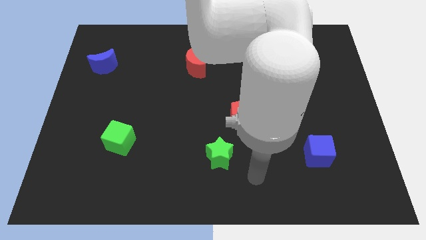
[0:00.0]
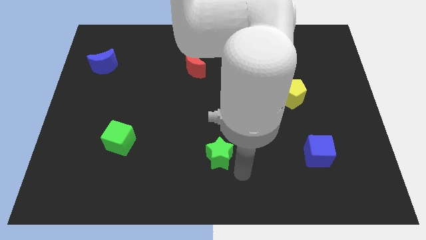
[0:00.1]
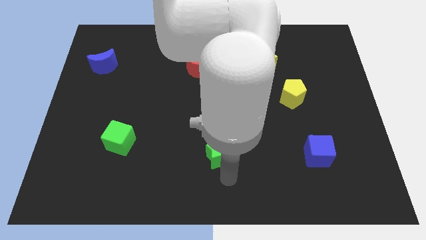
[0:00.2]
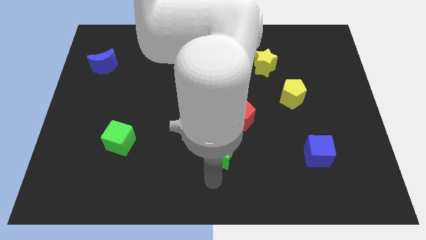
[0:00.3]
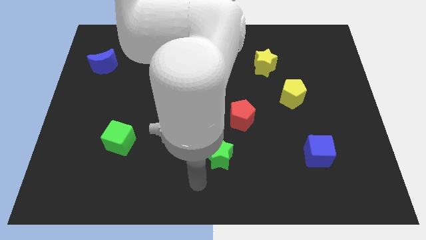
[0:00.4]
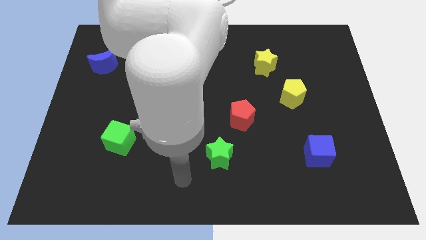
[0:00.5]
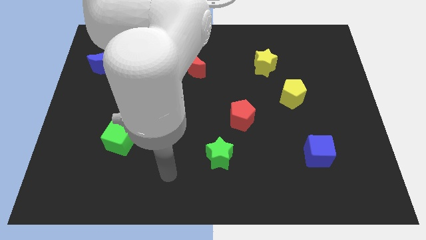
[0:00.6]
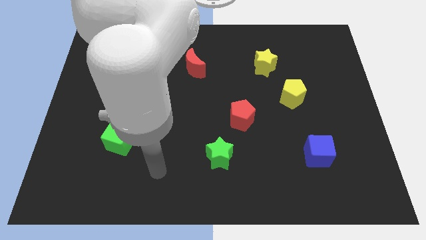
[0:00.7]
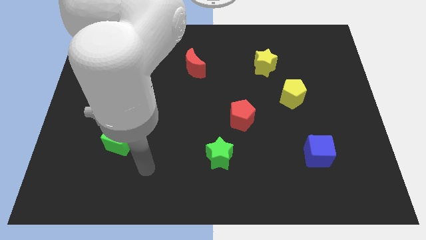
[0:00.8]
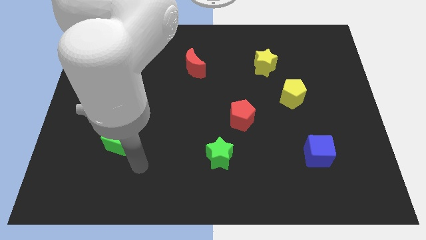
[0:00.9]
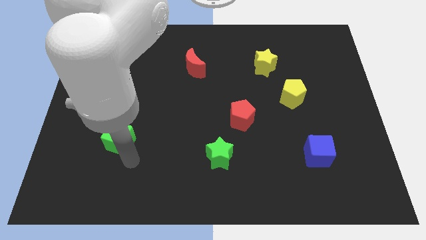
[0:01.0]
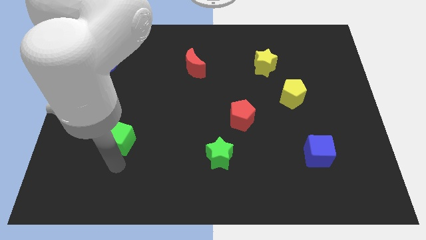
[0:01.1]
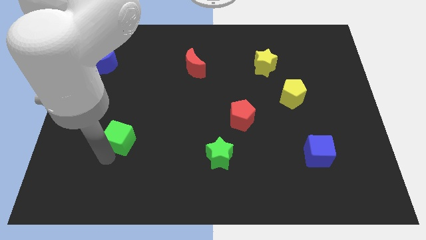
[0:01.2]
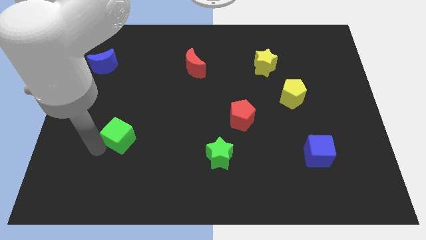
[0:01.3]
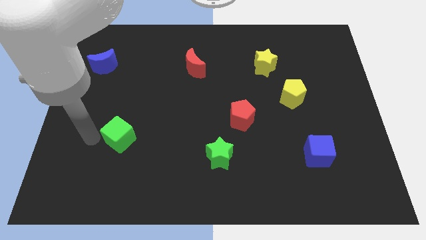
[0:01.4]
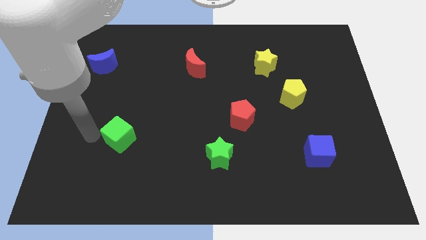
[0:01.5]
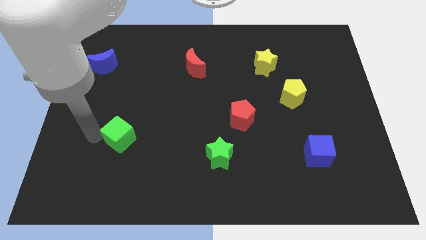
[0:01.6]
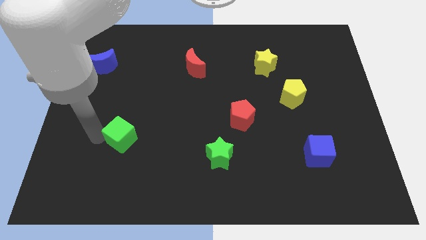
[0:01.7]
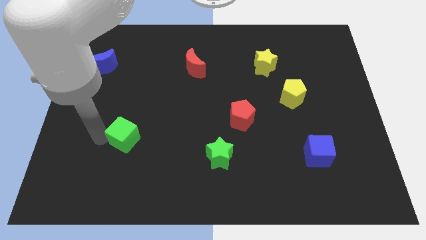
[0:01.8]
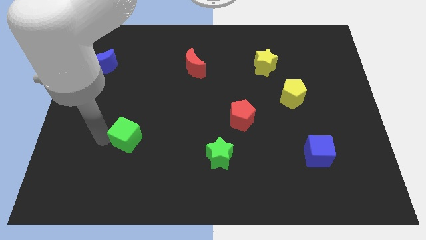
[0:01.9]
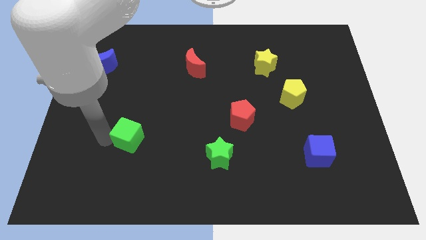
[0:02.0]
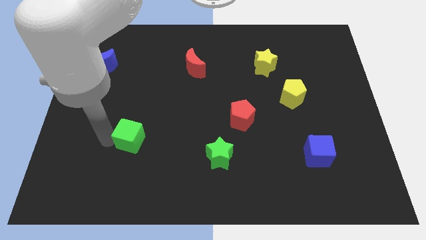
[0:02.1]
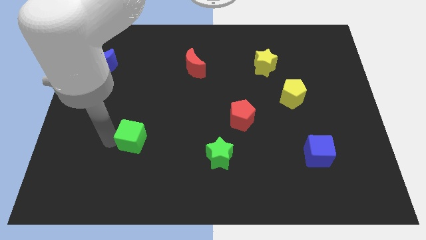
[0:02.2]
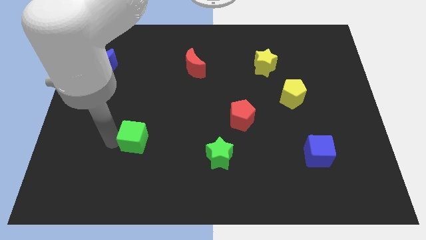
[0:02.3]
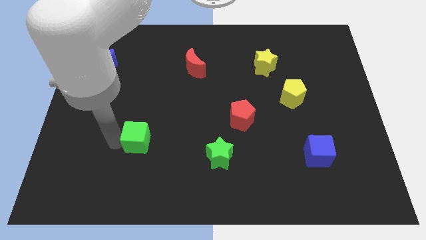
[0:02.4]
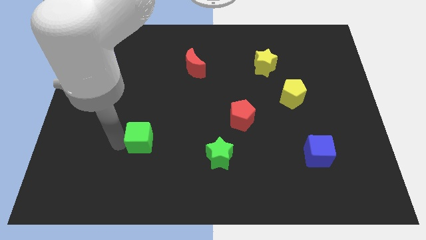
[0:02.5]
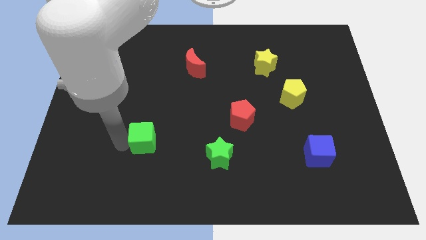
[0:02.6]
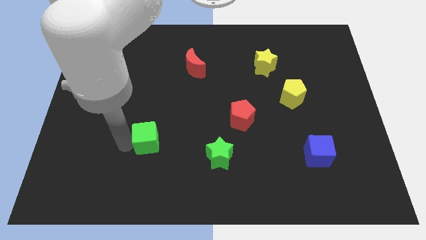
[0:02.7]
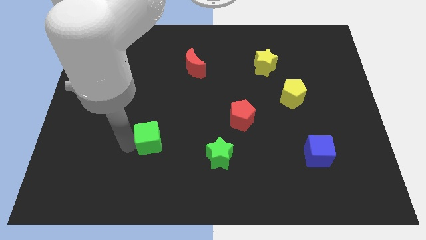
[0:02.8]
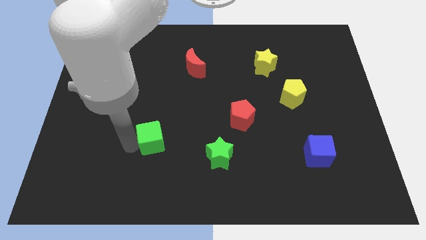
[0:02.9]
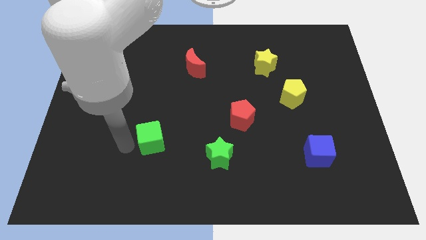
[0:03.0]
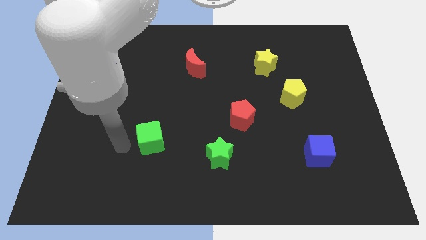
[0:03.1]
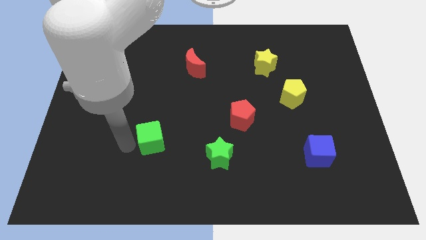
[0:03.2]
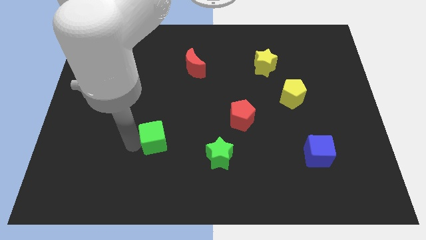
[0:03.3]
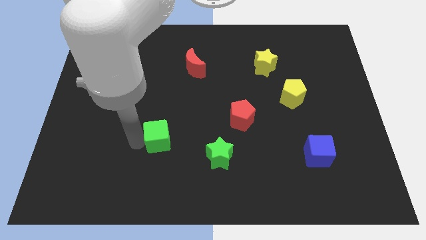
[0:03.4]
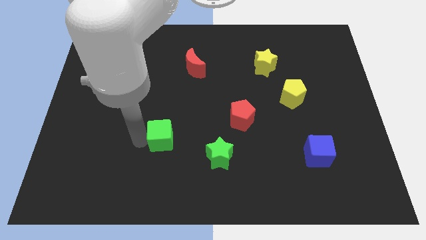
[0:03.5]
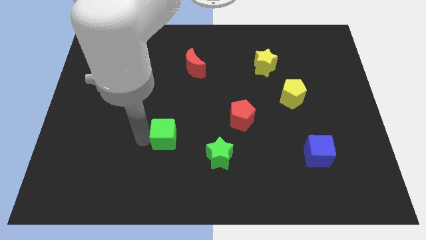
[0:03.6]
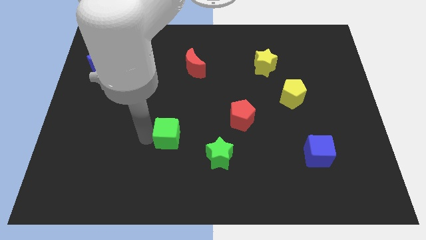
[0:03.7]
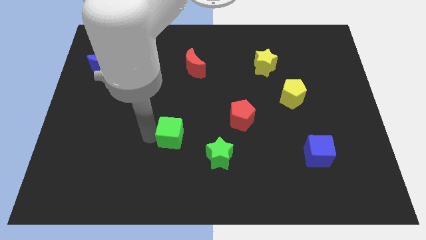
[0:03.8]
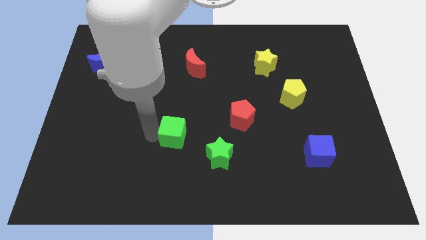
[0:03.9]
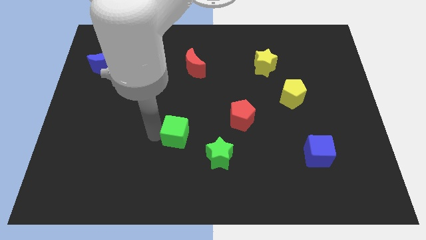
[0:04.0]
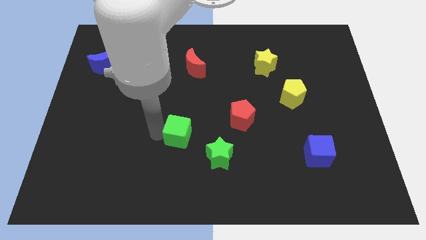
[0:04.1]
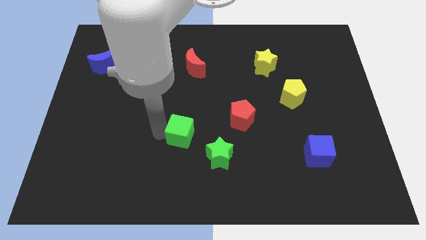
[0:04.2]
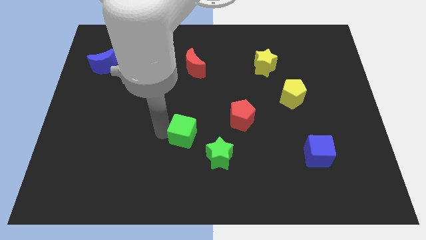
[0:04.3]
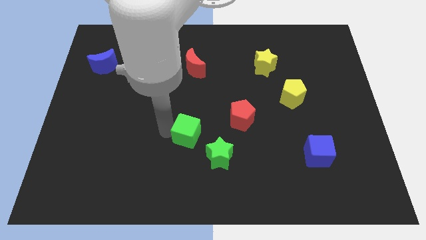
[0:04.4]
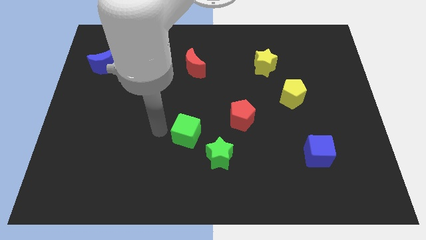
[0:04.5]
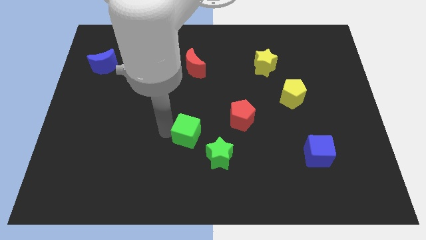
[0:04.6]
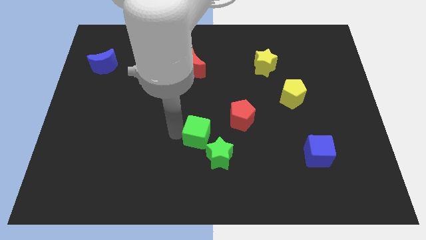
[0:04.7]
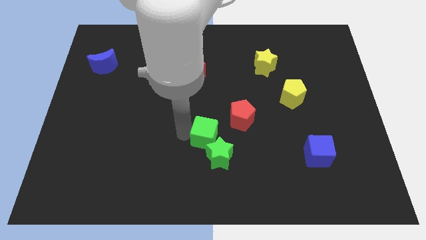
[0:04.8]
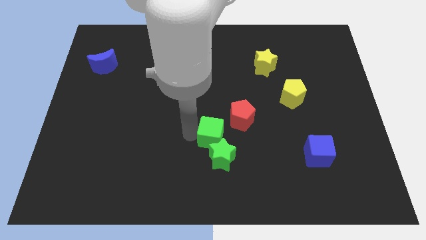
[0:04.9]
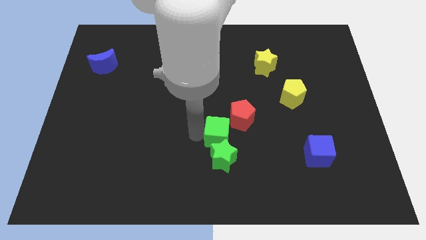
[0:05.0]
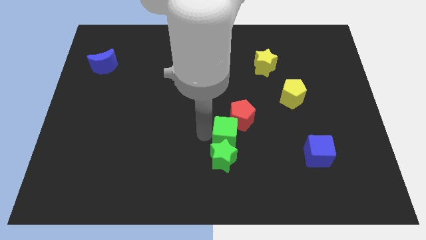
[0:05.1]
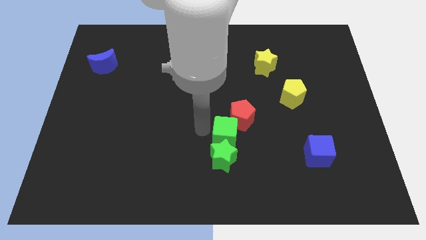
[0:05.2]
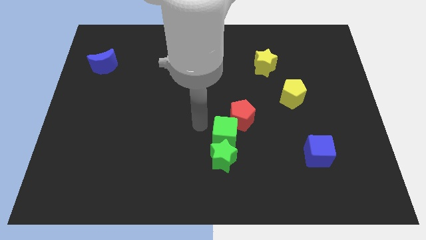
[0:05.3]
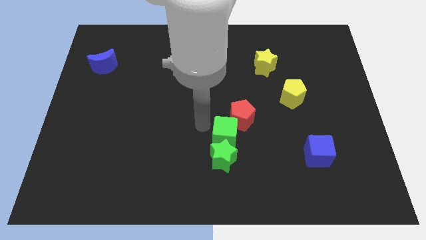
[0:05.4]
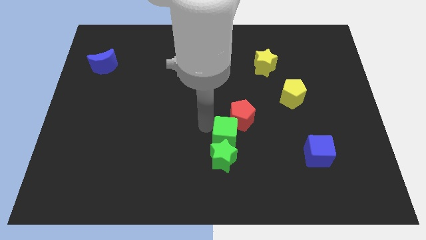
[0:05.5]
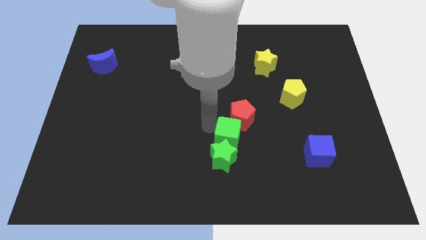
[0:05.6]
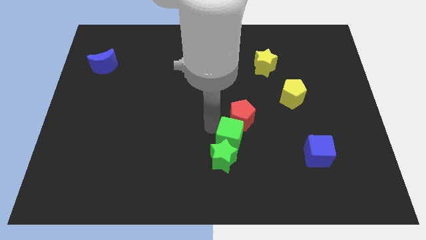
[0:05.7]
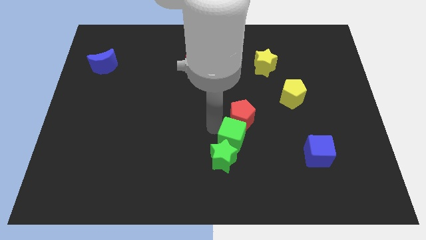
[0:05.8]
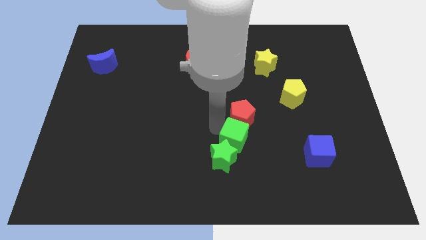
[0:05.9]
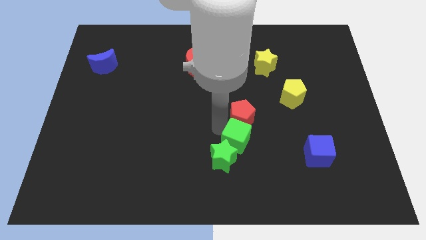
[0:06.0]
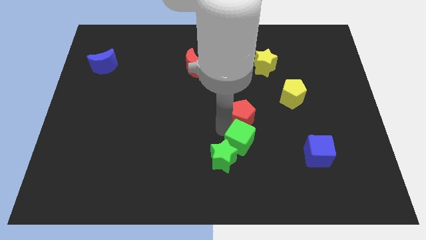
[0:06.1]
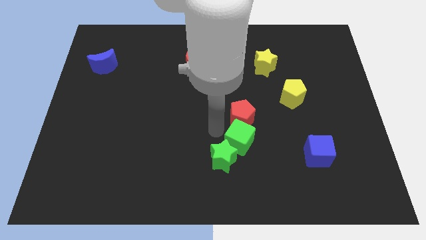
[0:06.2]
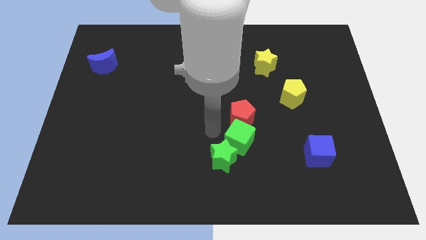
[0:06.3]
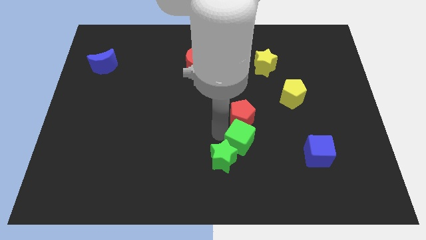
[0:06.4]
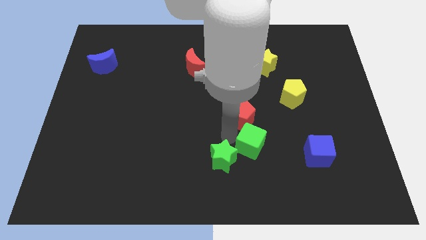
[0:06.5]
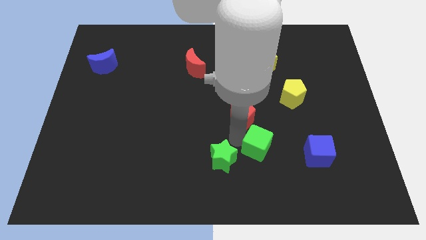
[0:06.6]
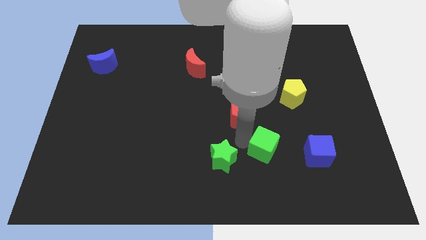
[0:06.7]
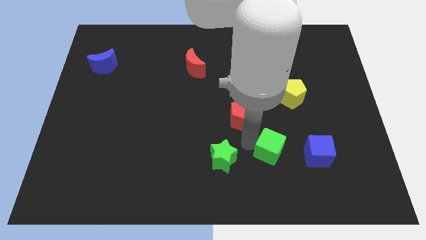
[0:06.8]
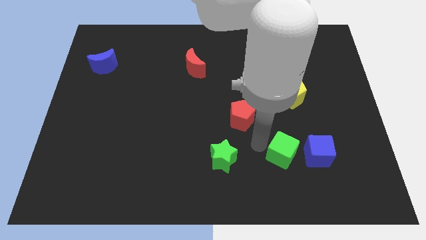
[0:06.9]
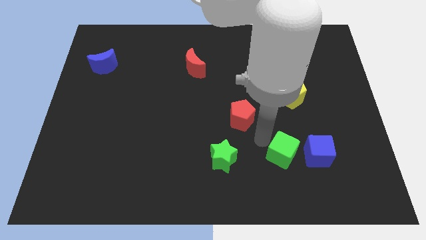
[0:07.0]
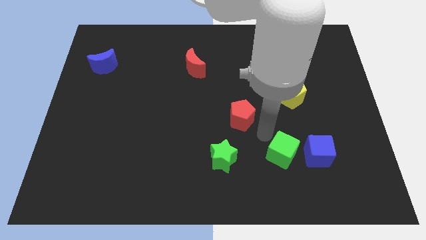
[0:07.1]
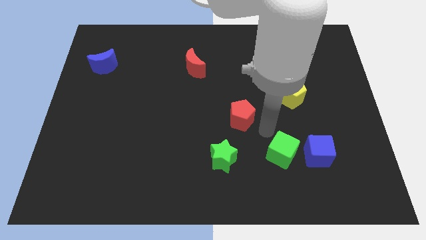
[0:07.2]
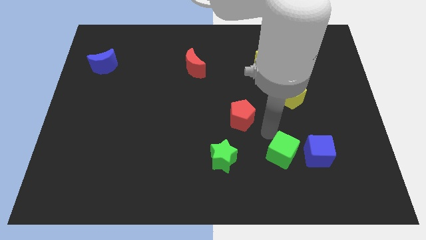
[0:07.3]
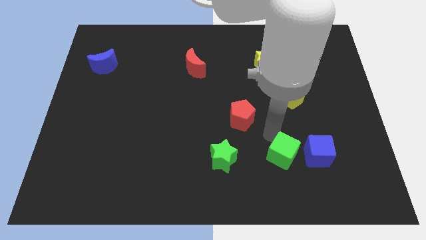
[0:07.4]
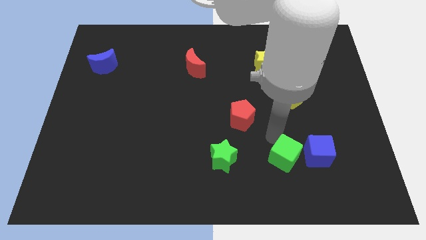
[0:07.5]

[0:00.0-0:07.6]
move the green cube to the bottom left side of the blue cube

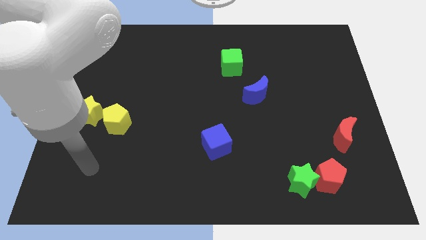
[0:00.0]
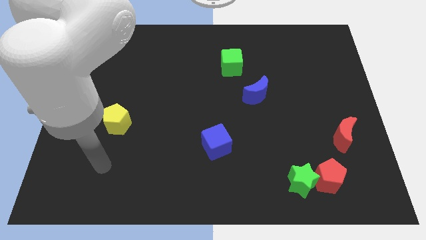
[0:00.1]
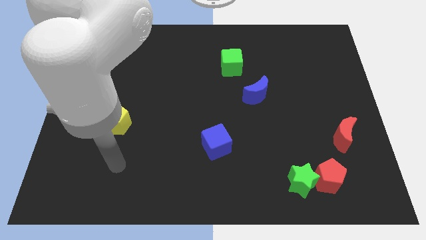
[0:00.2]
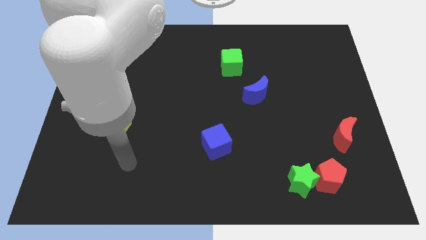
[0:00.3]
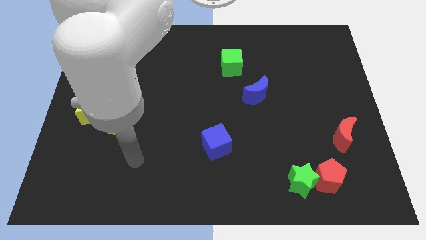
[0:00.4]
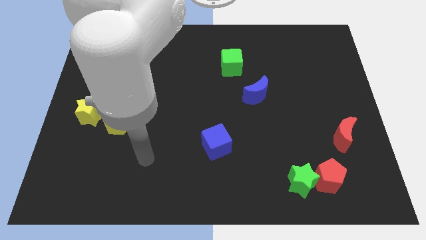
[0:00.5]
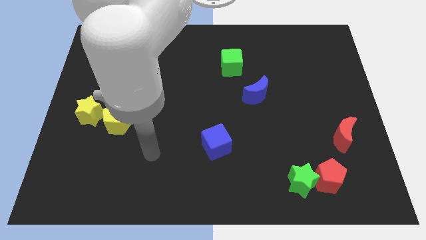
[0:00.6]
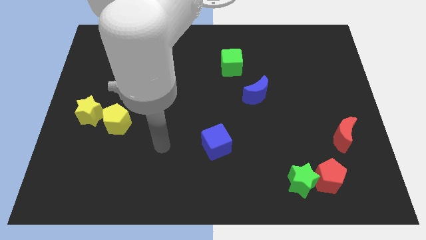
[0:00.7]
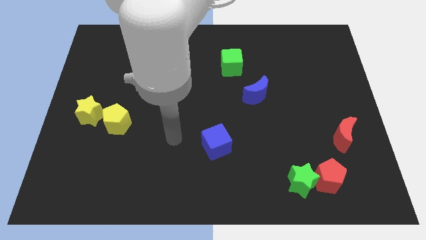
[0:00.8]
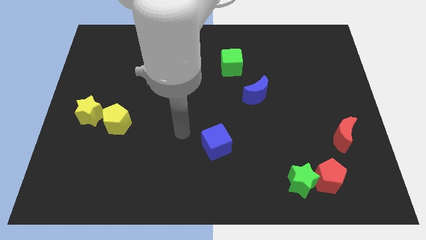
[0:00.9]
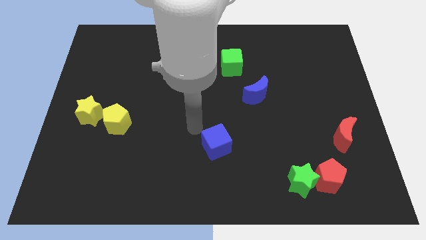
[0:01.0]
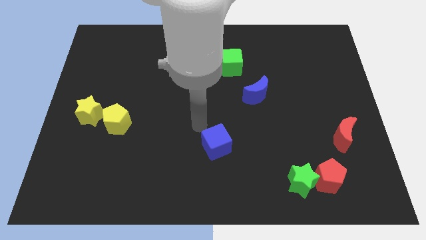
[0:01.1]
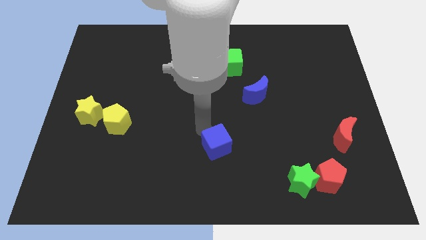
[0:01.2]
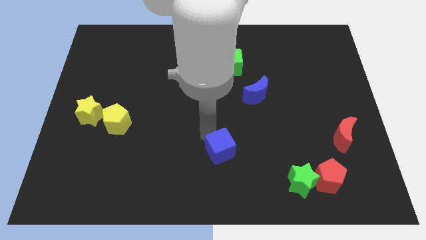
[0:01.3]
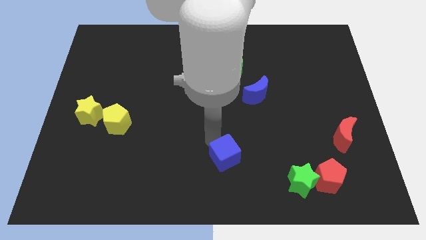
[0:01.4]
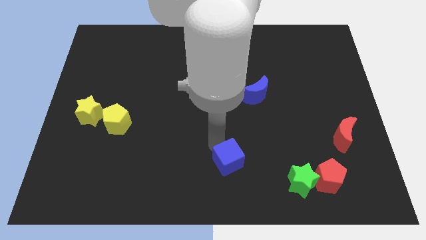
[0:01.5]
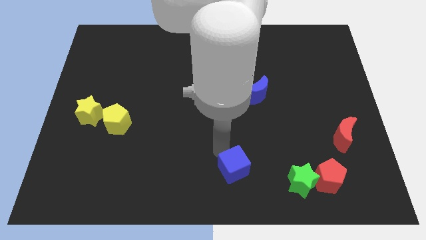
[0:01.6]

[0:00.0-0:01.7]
slide the blue cube just left of the green star
